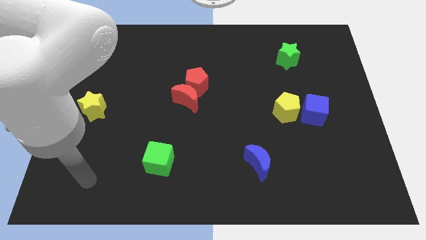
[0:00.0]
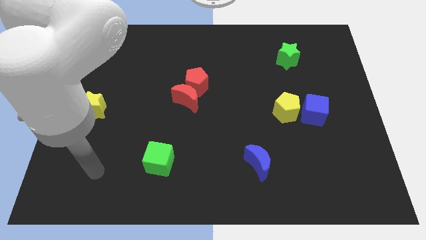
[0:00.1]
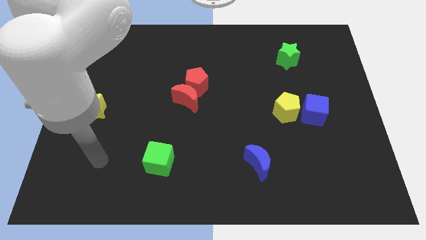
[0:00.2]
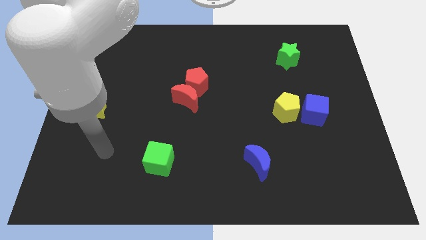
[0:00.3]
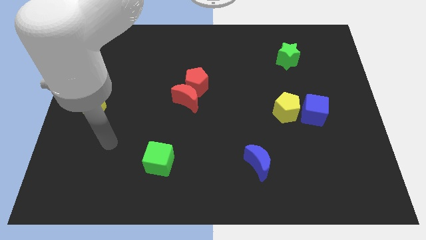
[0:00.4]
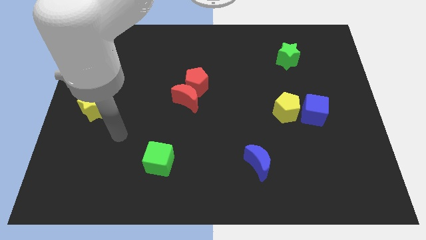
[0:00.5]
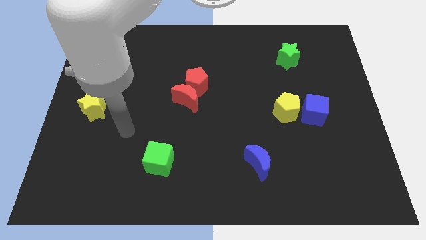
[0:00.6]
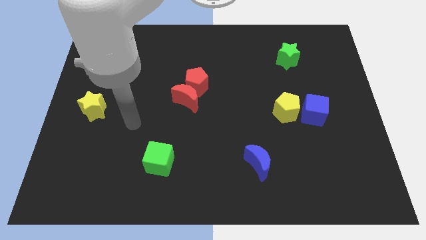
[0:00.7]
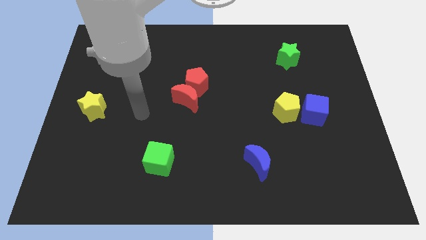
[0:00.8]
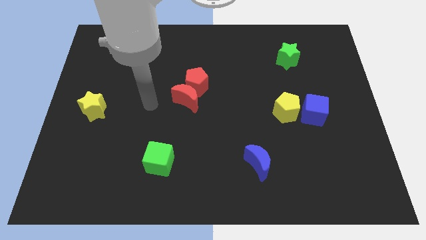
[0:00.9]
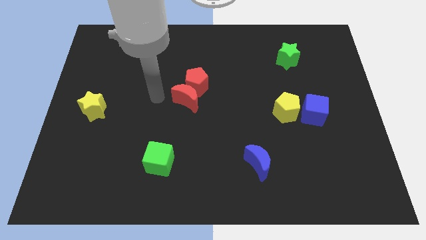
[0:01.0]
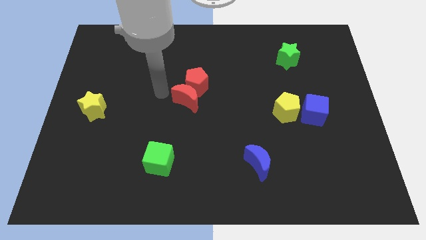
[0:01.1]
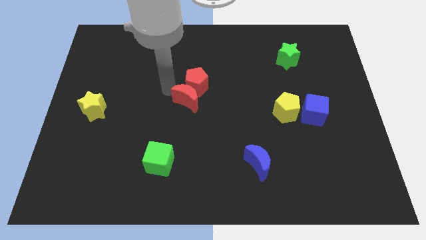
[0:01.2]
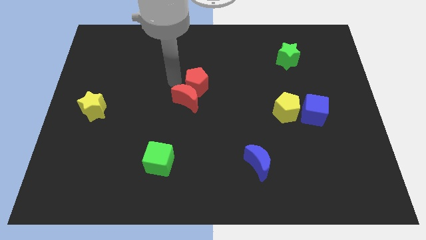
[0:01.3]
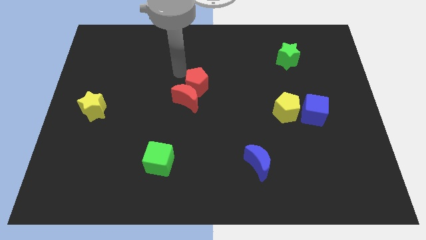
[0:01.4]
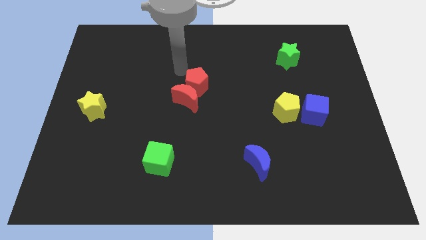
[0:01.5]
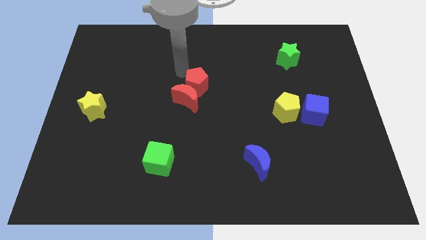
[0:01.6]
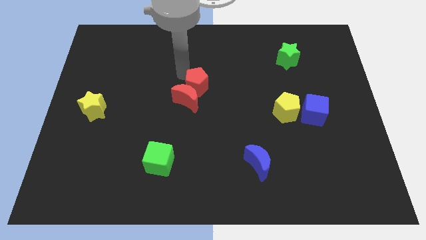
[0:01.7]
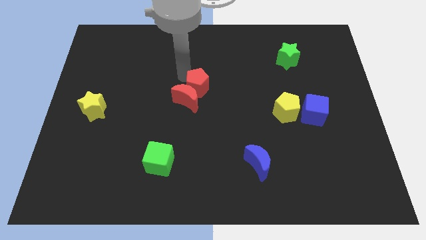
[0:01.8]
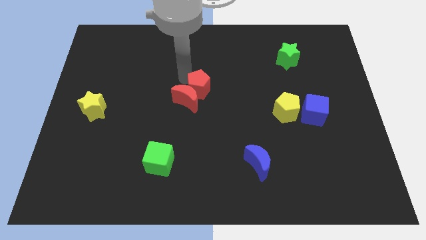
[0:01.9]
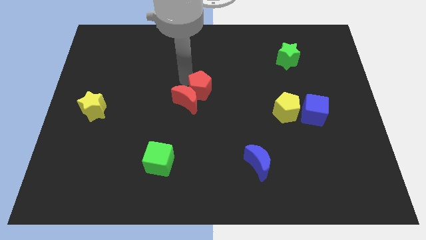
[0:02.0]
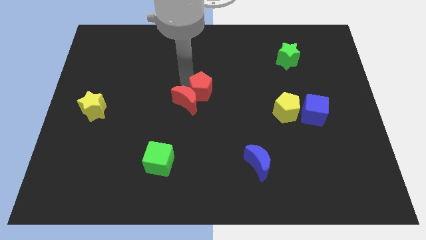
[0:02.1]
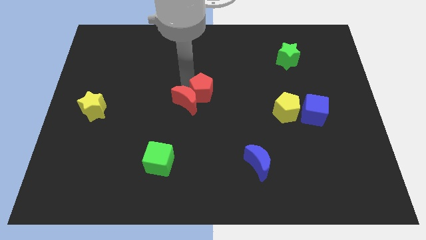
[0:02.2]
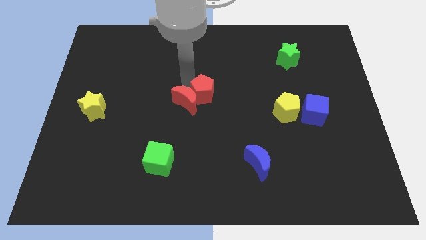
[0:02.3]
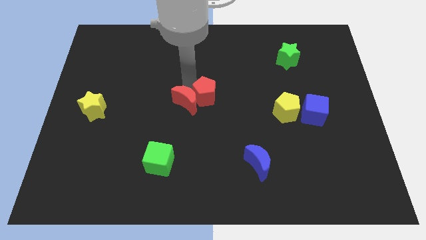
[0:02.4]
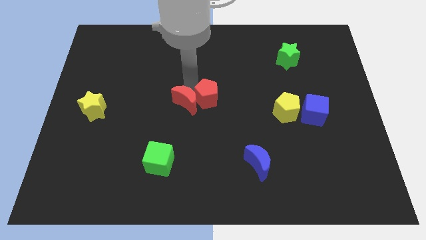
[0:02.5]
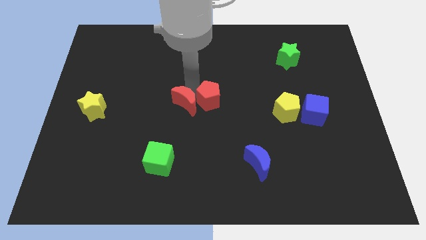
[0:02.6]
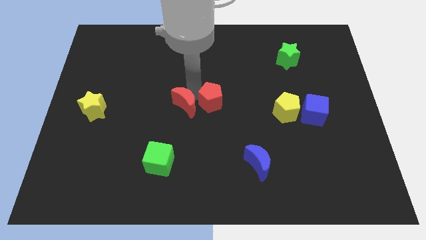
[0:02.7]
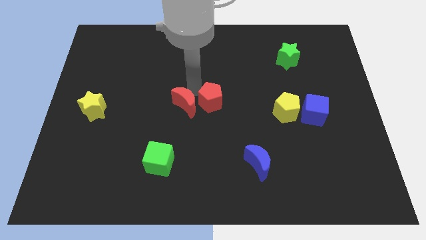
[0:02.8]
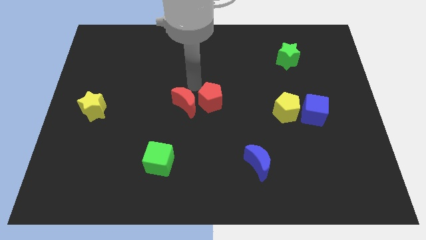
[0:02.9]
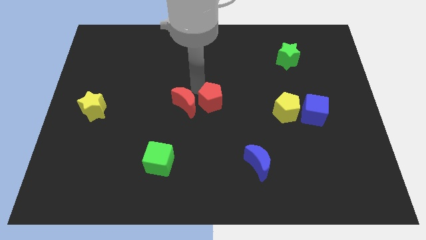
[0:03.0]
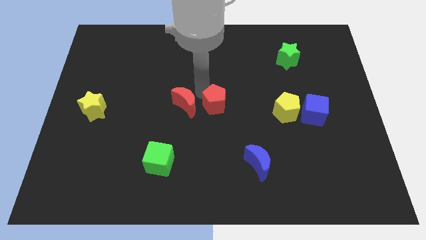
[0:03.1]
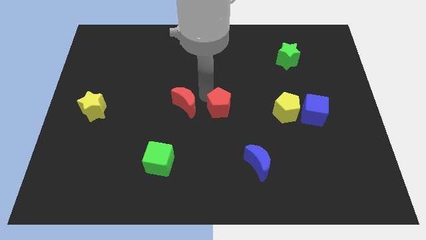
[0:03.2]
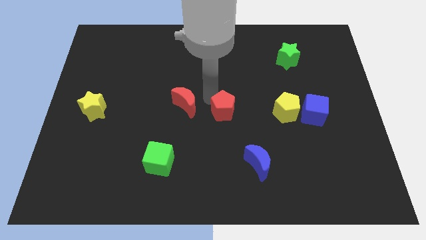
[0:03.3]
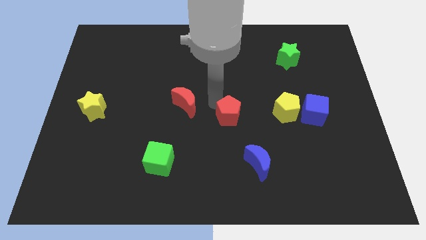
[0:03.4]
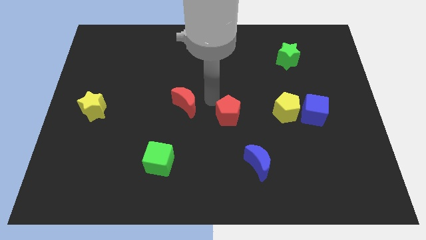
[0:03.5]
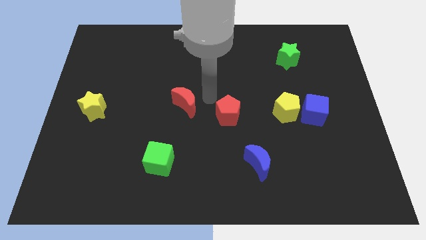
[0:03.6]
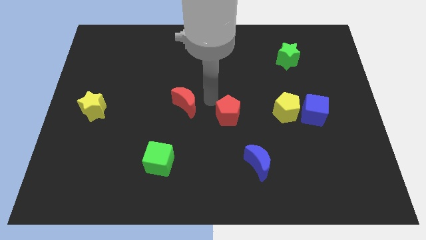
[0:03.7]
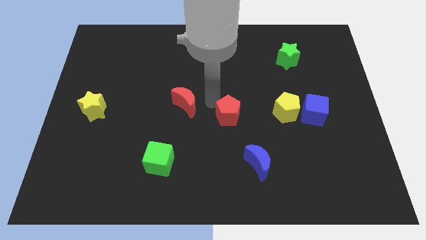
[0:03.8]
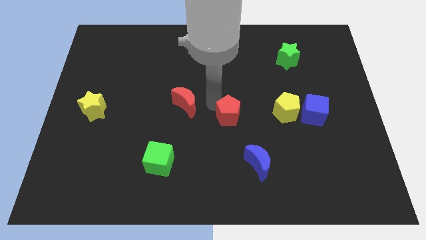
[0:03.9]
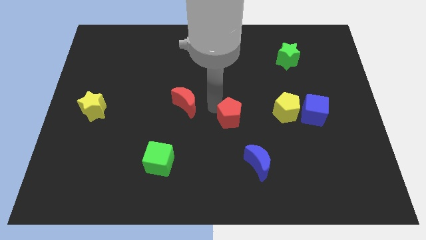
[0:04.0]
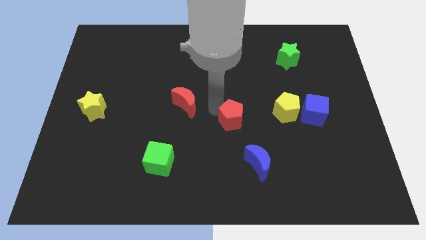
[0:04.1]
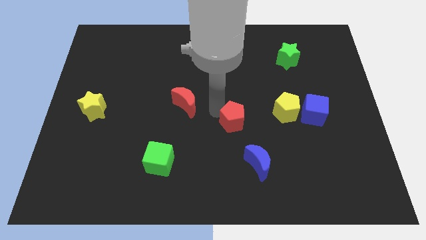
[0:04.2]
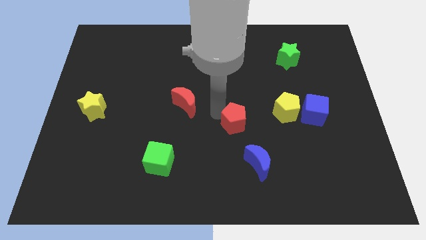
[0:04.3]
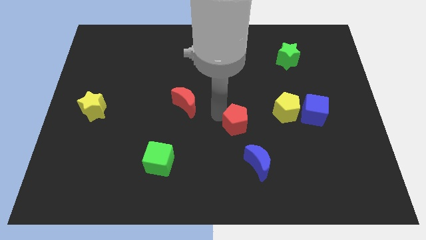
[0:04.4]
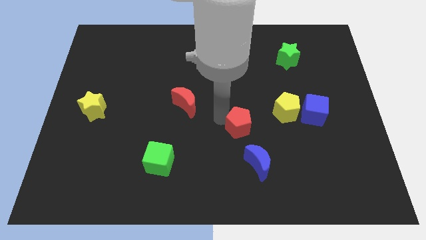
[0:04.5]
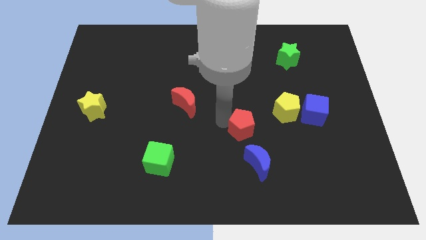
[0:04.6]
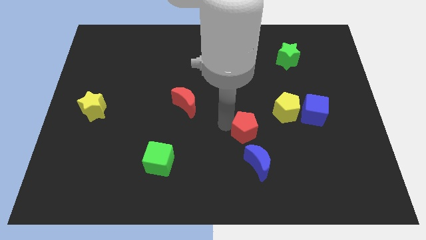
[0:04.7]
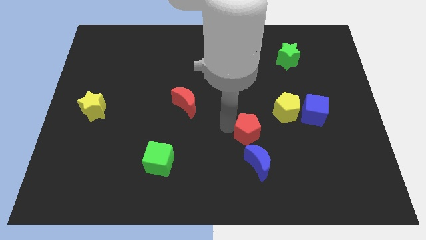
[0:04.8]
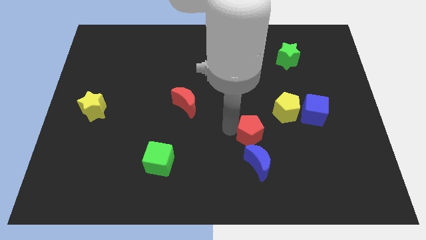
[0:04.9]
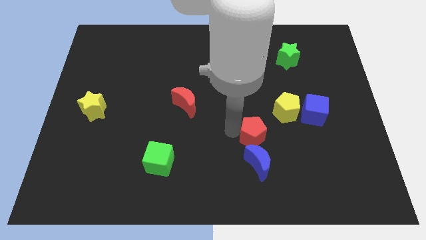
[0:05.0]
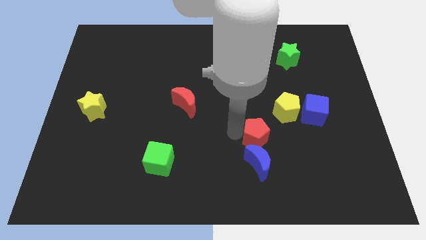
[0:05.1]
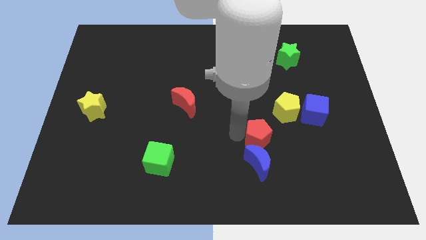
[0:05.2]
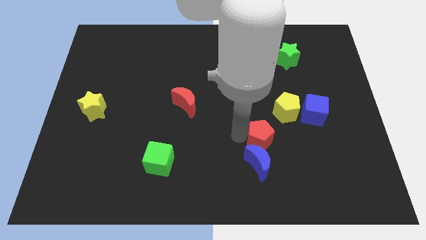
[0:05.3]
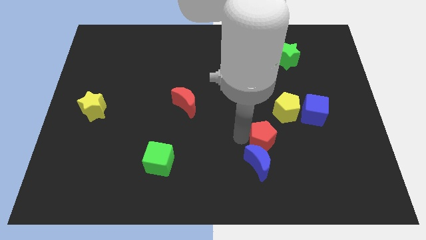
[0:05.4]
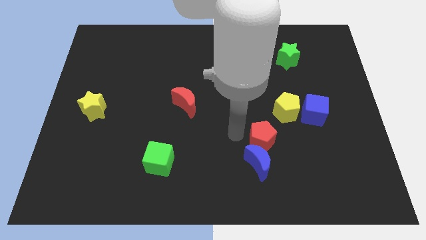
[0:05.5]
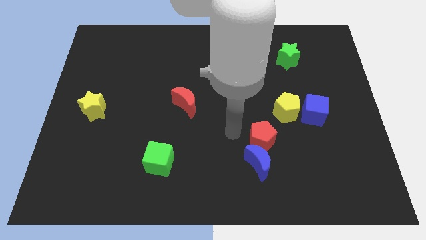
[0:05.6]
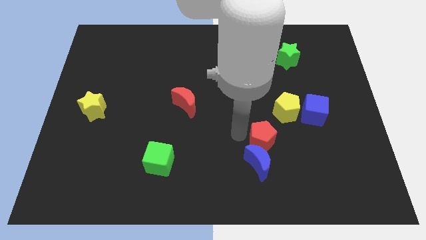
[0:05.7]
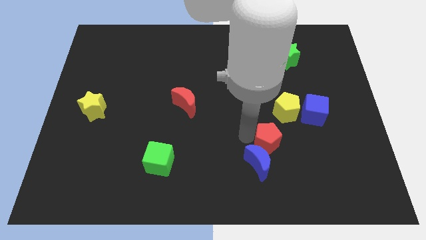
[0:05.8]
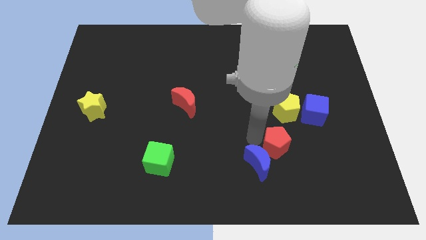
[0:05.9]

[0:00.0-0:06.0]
move the red pentagon to the bottom of the yellow pentagon

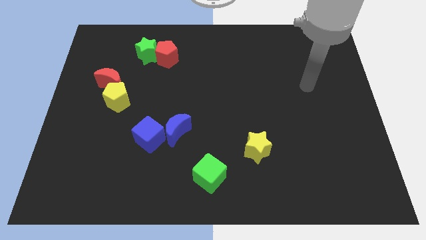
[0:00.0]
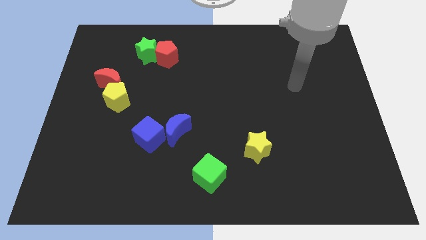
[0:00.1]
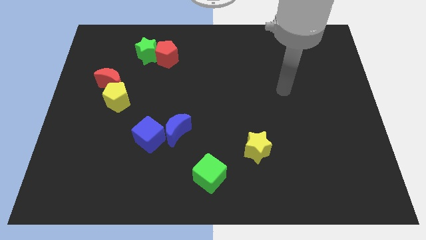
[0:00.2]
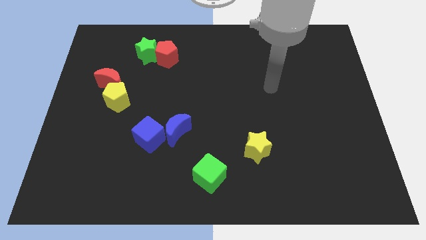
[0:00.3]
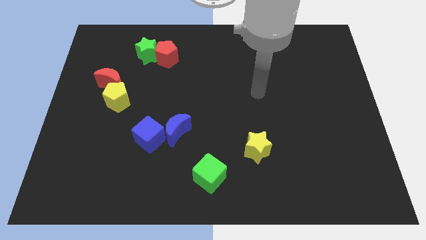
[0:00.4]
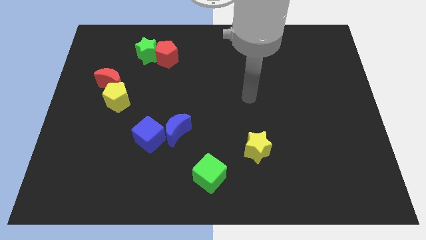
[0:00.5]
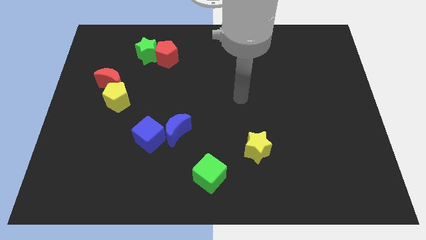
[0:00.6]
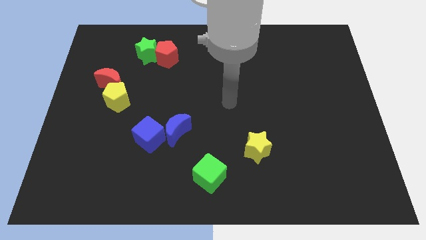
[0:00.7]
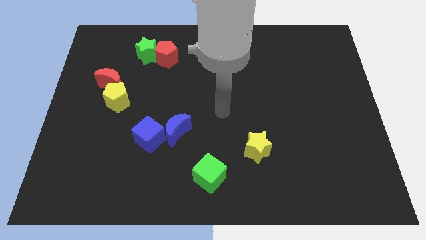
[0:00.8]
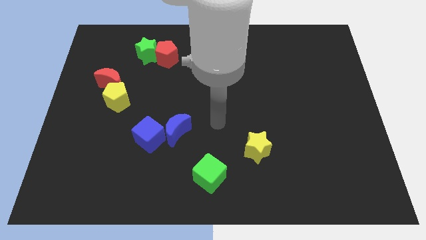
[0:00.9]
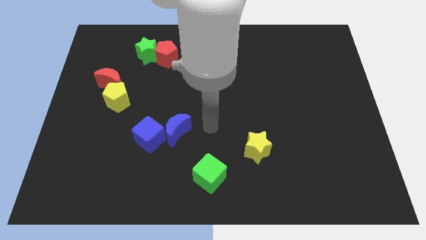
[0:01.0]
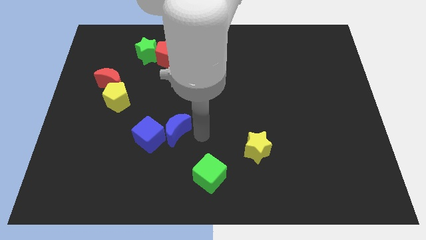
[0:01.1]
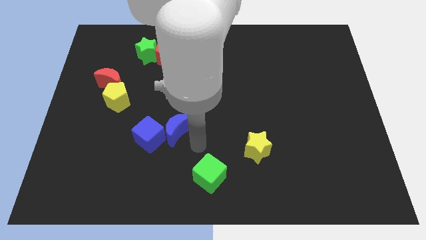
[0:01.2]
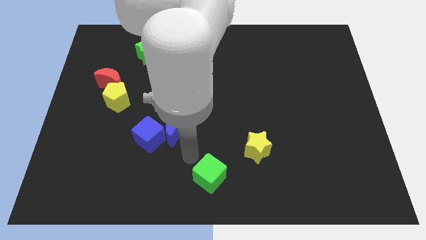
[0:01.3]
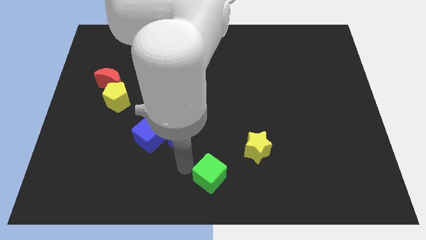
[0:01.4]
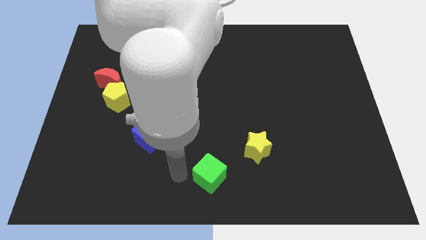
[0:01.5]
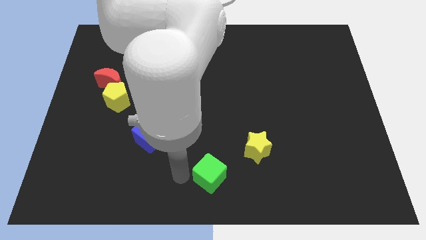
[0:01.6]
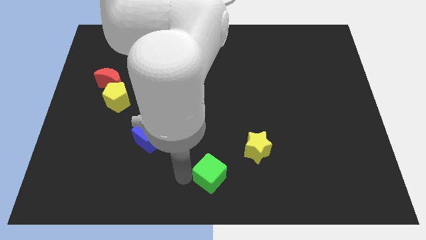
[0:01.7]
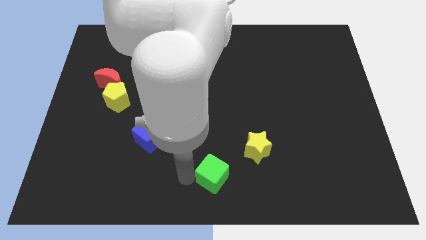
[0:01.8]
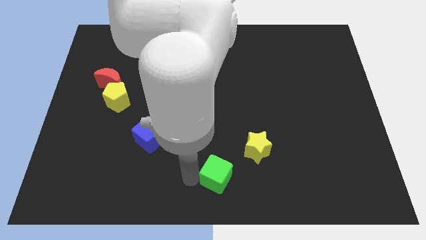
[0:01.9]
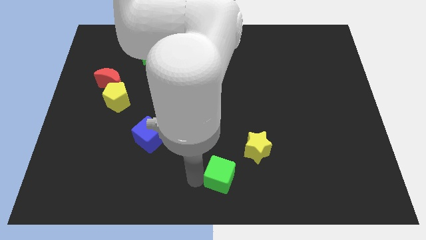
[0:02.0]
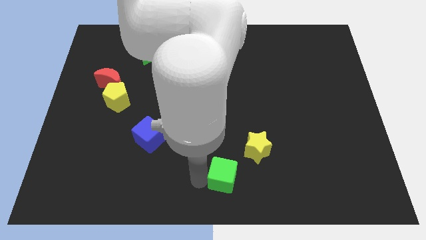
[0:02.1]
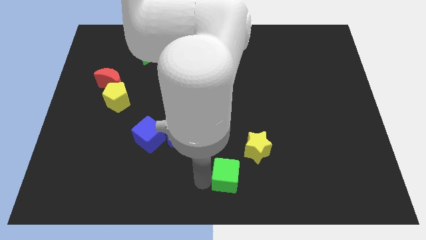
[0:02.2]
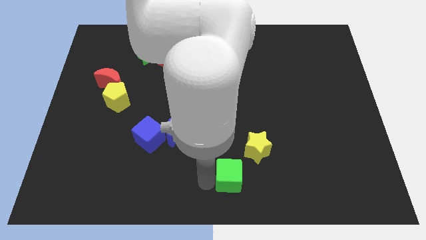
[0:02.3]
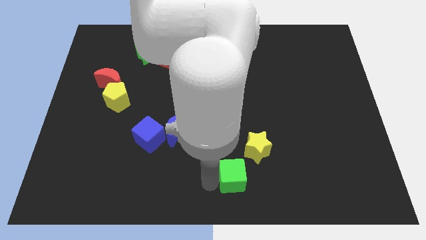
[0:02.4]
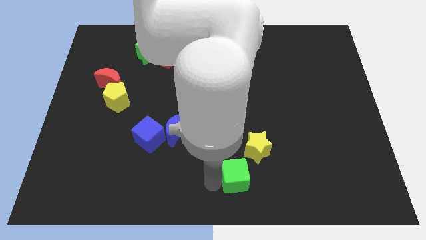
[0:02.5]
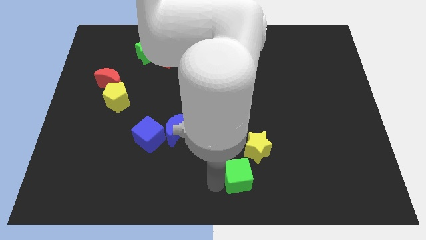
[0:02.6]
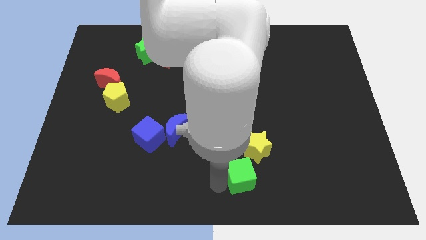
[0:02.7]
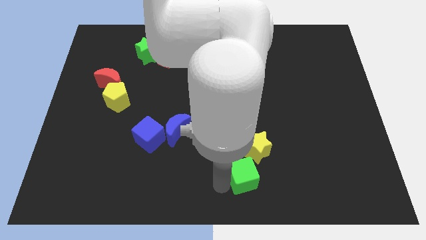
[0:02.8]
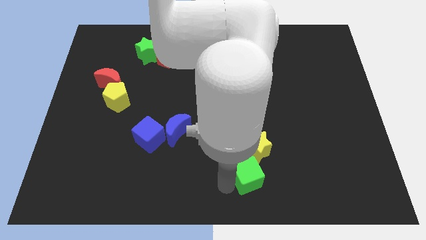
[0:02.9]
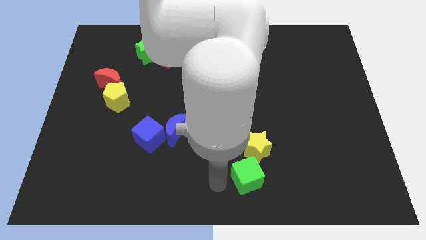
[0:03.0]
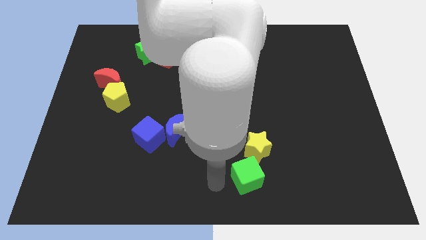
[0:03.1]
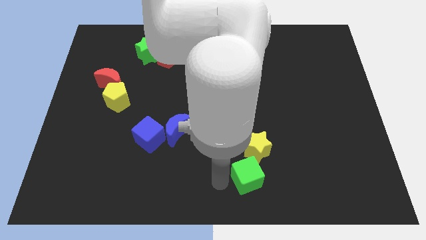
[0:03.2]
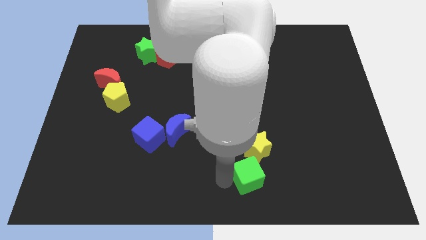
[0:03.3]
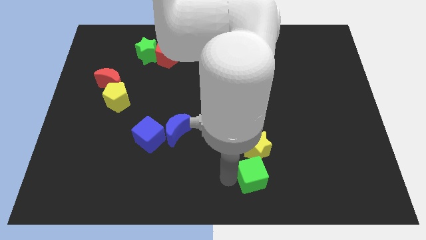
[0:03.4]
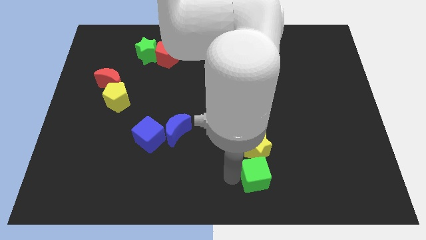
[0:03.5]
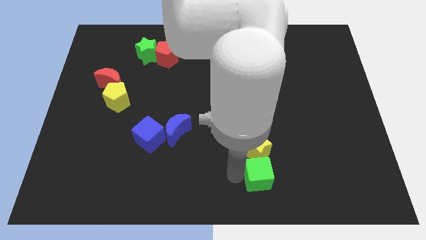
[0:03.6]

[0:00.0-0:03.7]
move the green cube to the bottom right side of the yellow star
